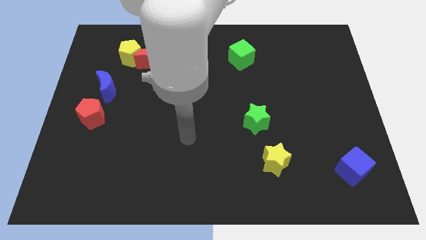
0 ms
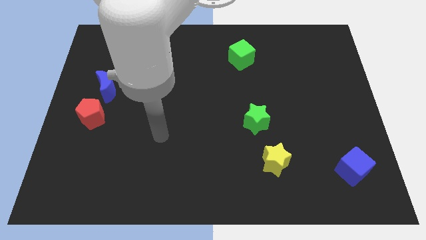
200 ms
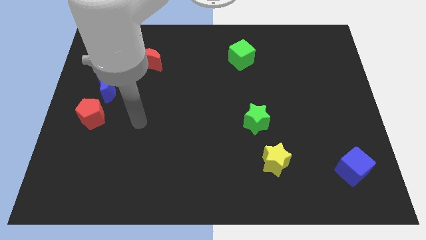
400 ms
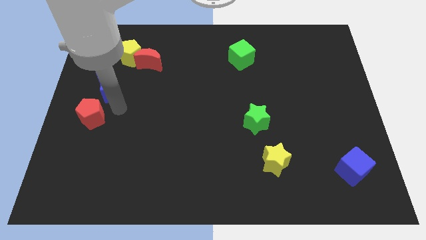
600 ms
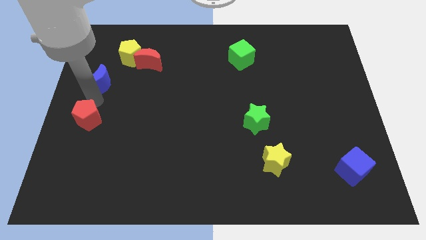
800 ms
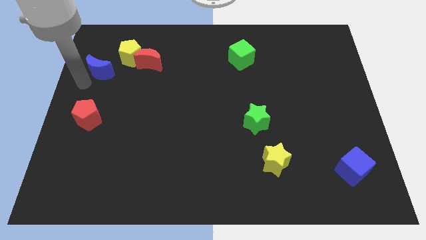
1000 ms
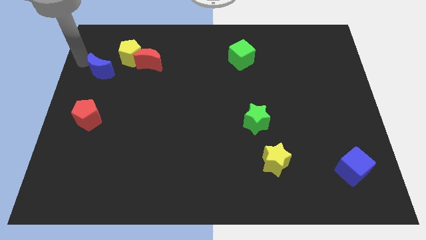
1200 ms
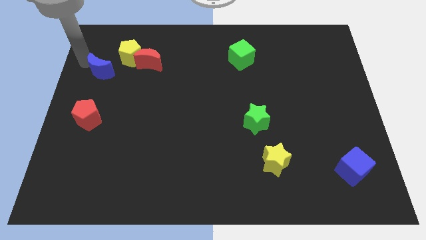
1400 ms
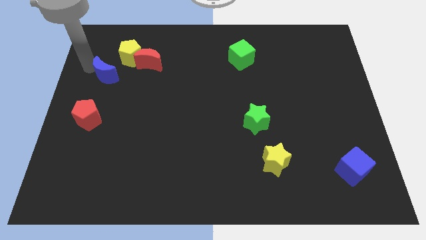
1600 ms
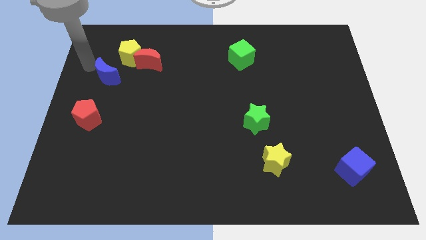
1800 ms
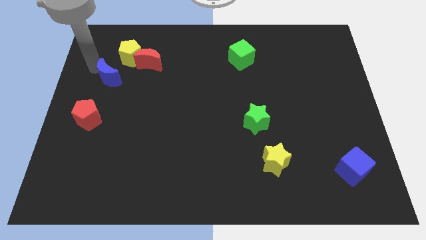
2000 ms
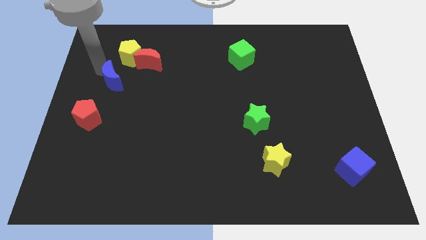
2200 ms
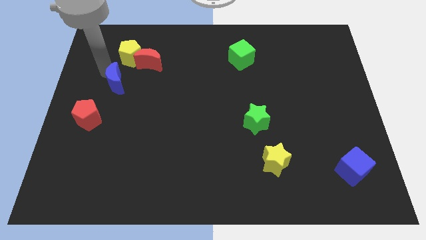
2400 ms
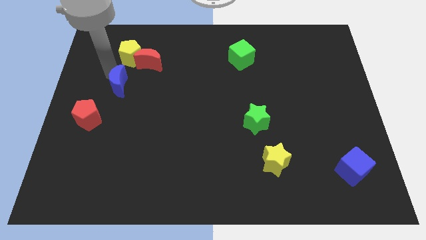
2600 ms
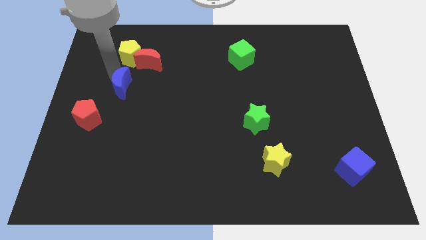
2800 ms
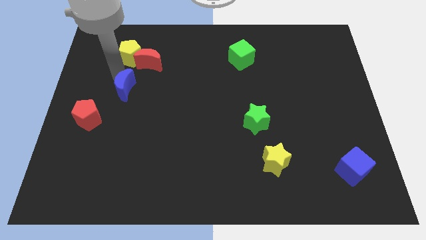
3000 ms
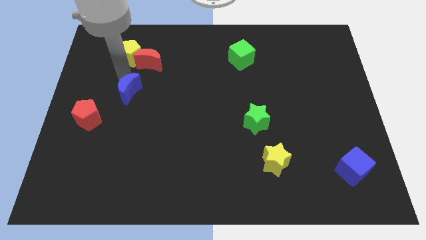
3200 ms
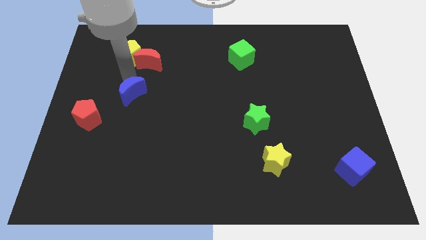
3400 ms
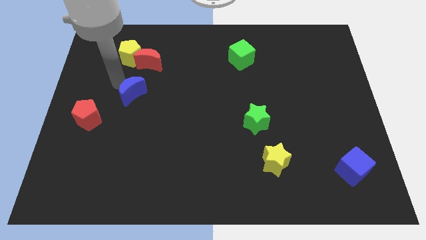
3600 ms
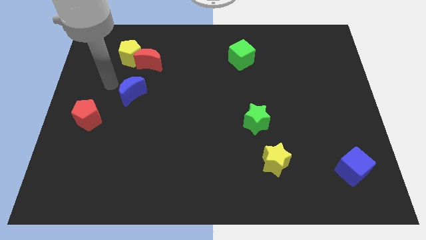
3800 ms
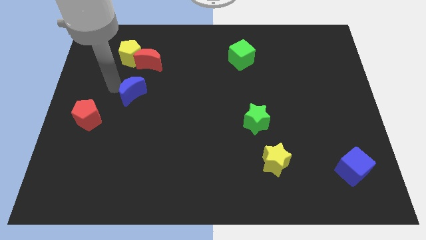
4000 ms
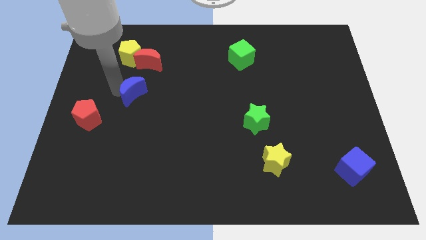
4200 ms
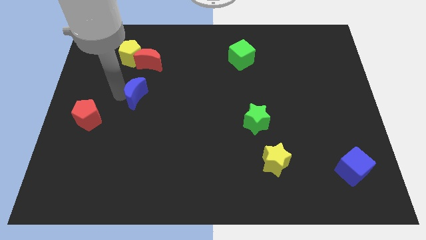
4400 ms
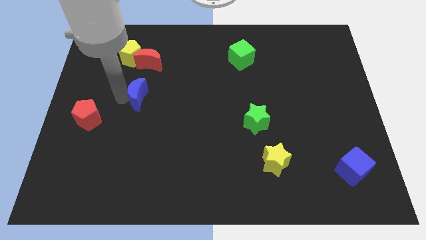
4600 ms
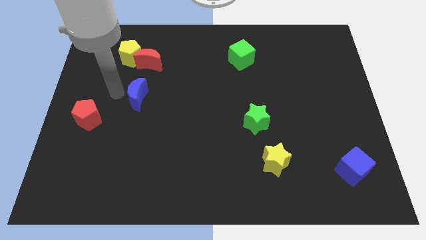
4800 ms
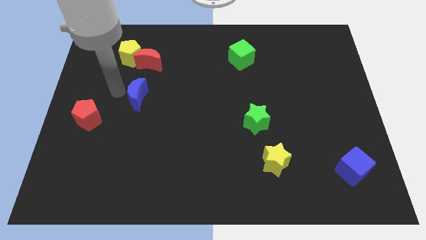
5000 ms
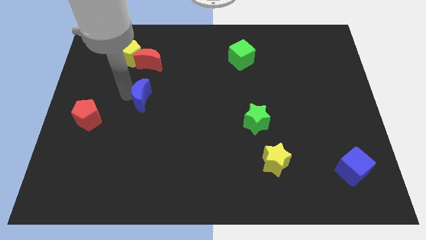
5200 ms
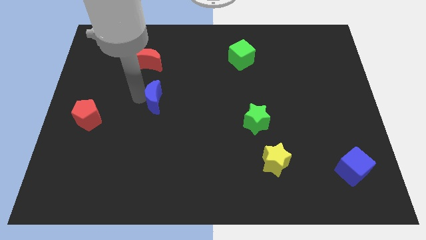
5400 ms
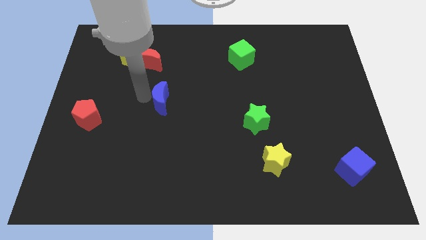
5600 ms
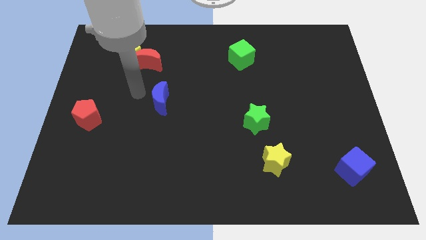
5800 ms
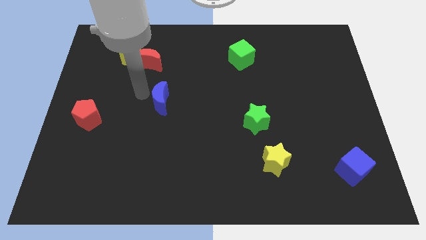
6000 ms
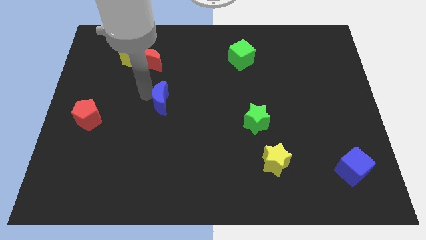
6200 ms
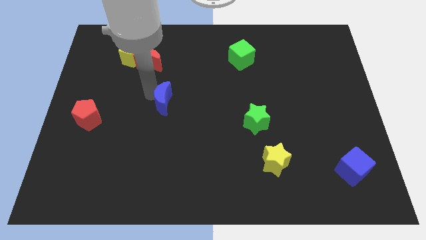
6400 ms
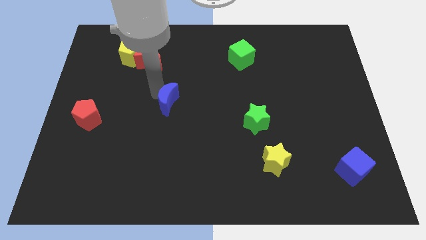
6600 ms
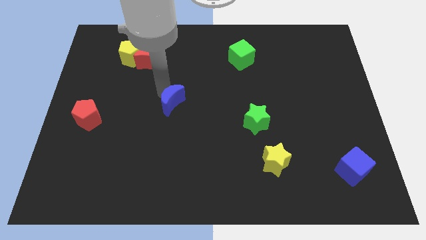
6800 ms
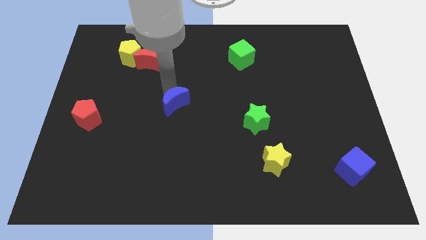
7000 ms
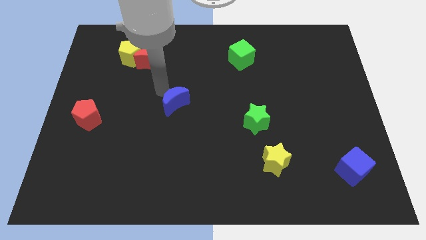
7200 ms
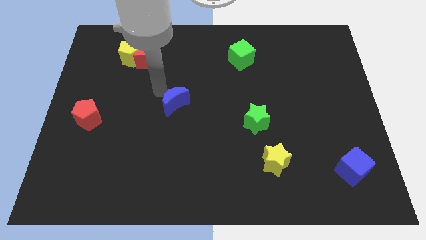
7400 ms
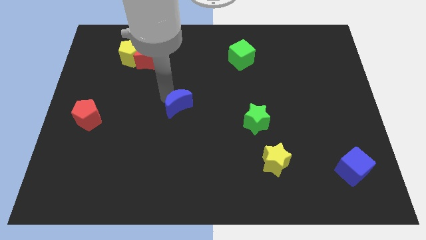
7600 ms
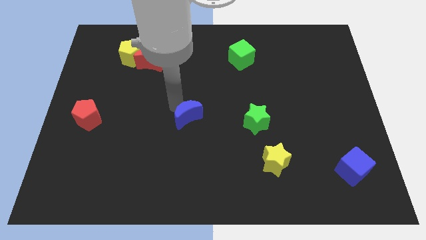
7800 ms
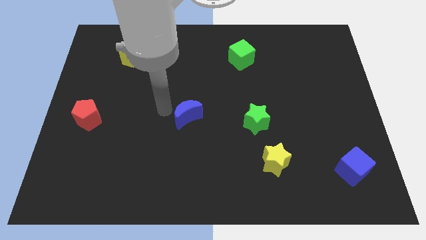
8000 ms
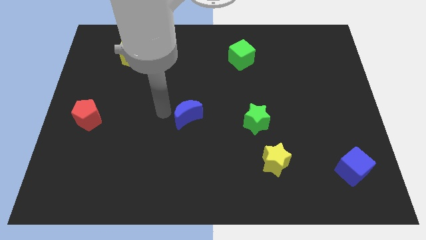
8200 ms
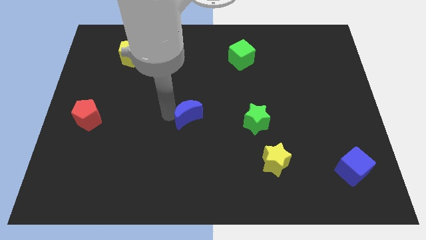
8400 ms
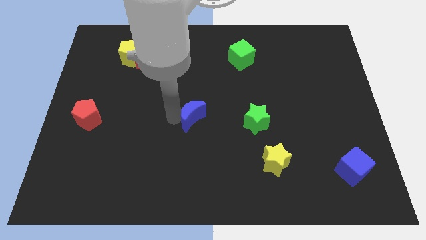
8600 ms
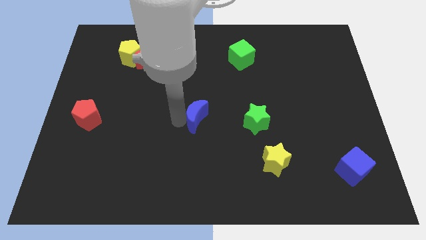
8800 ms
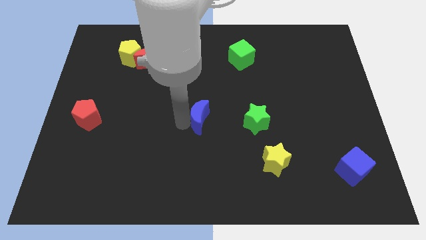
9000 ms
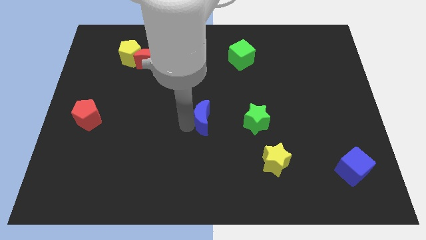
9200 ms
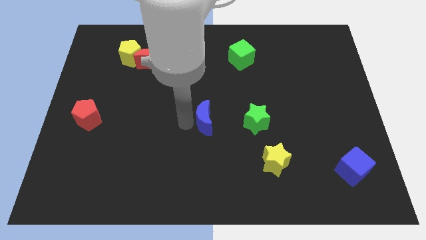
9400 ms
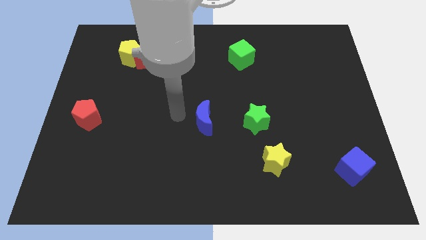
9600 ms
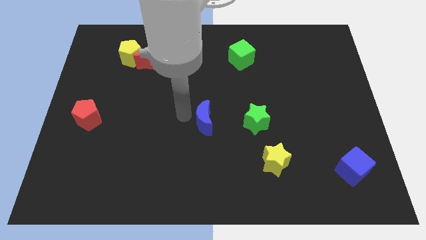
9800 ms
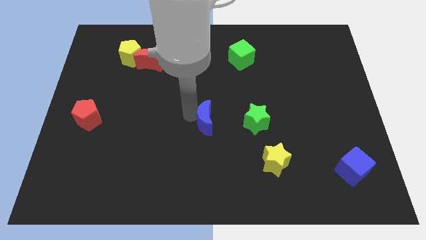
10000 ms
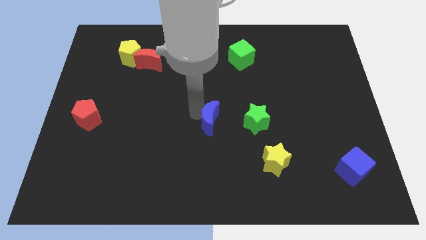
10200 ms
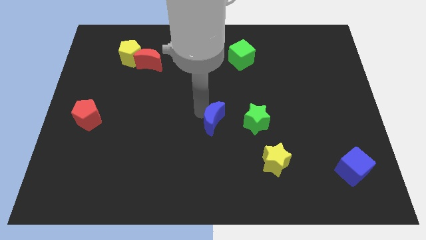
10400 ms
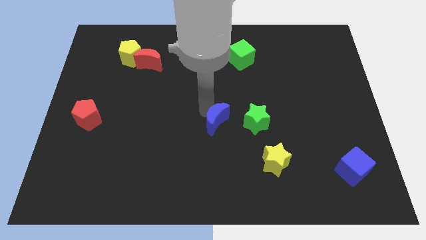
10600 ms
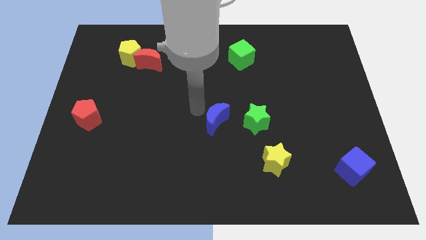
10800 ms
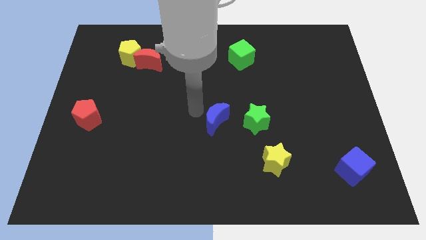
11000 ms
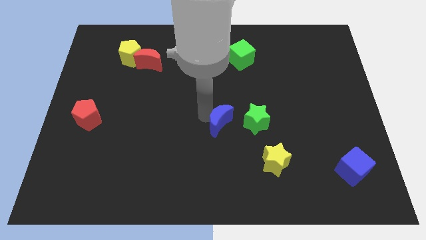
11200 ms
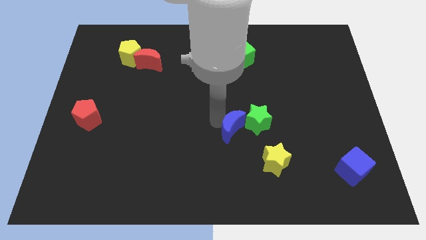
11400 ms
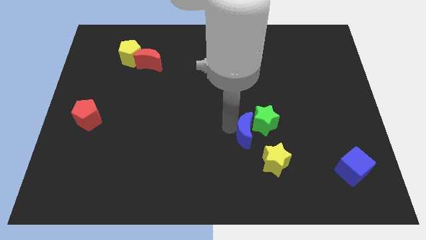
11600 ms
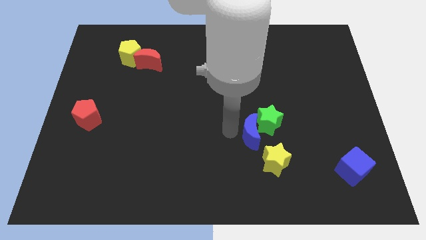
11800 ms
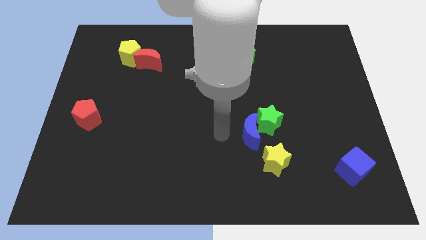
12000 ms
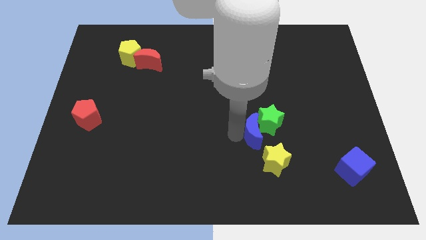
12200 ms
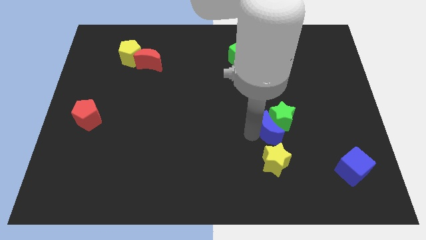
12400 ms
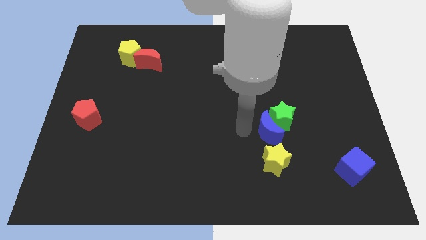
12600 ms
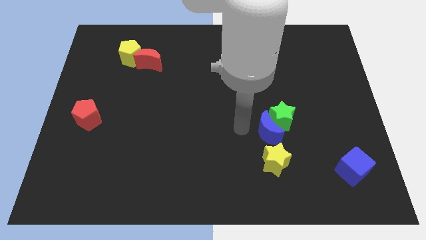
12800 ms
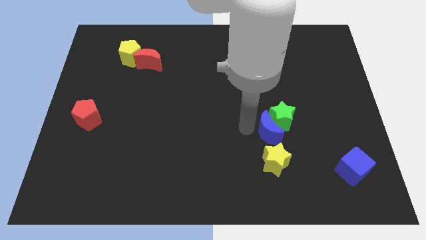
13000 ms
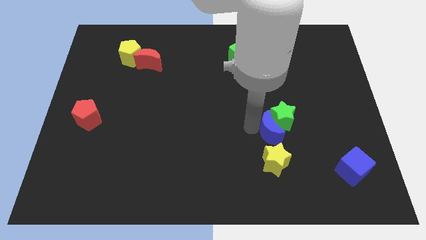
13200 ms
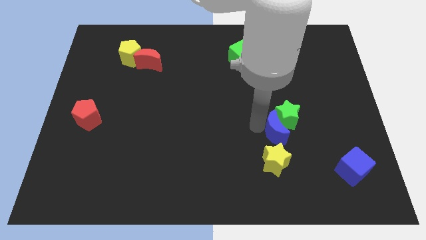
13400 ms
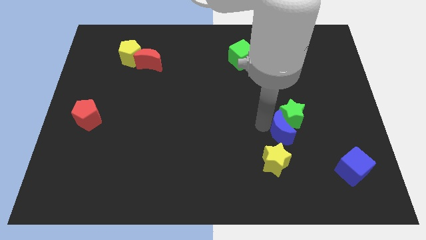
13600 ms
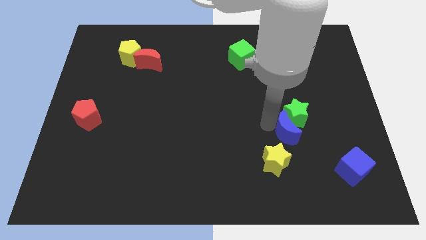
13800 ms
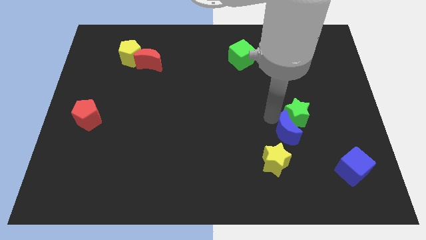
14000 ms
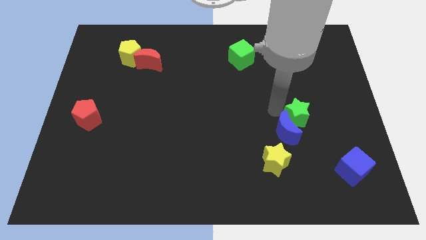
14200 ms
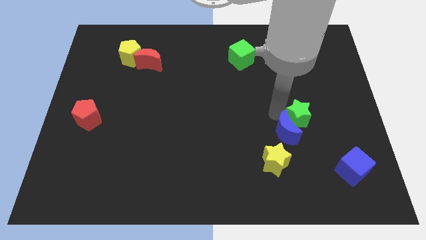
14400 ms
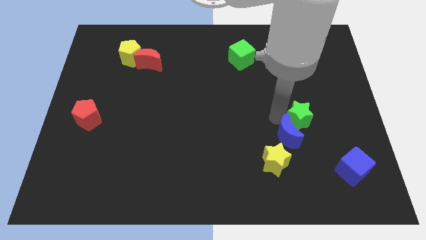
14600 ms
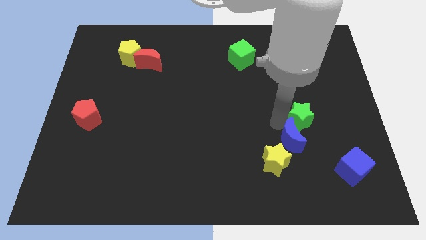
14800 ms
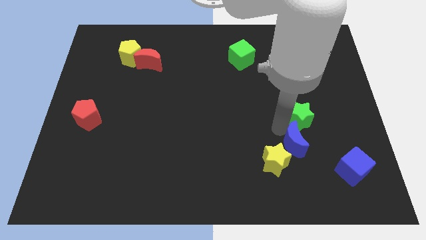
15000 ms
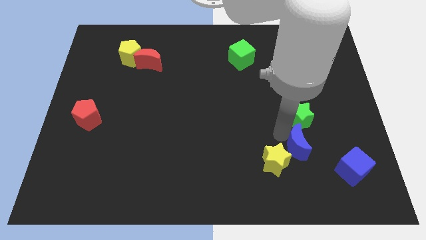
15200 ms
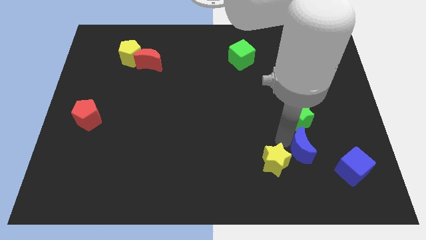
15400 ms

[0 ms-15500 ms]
push the blue moon to the left of the blue cube
